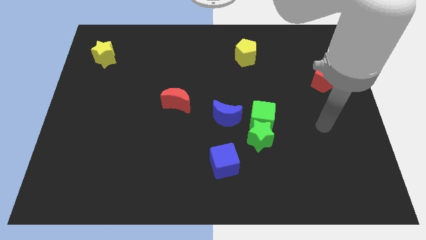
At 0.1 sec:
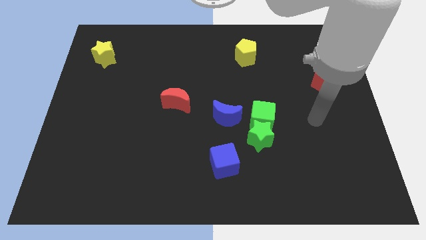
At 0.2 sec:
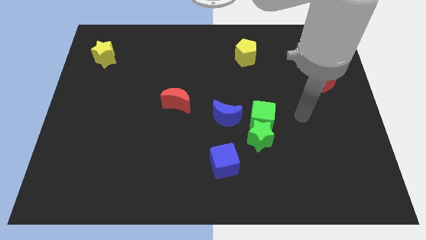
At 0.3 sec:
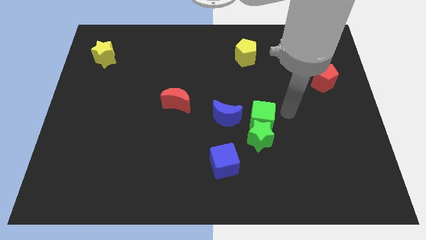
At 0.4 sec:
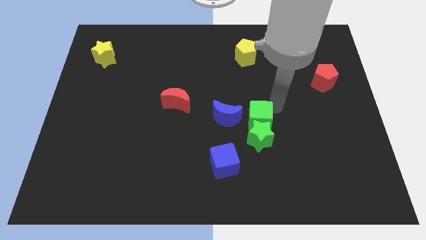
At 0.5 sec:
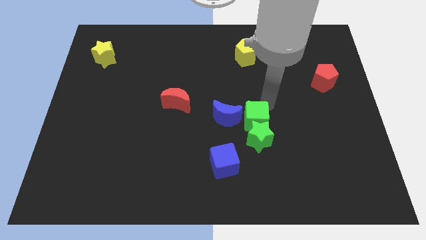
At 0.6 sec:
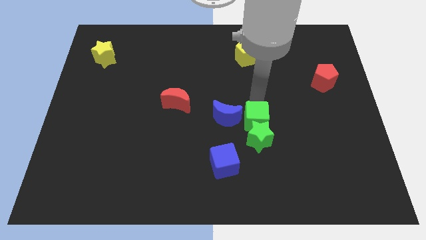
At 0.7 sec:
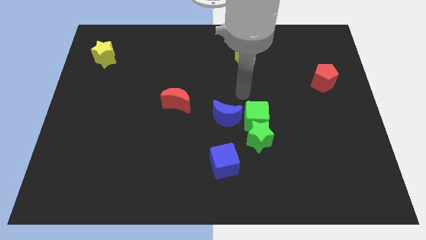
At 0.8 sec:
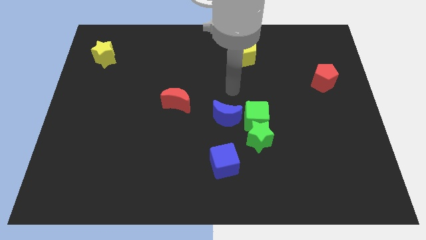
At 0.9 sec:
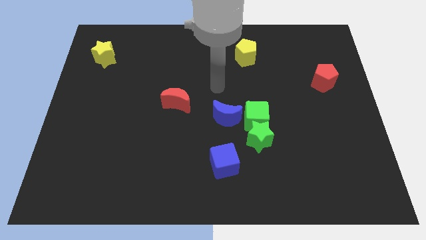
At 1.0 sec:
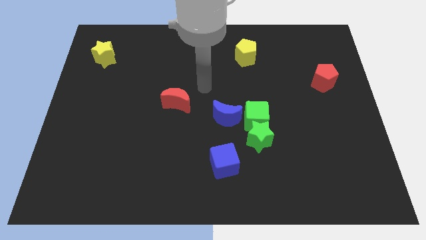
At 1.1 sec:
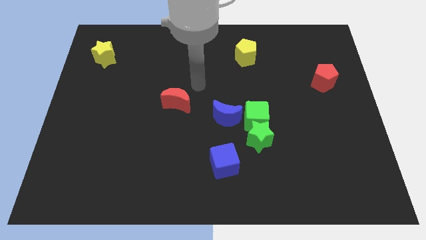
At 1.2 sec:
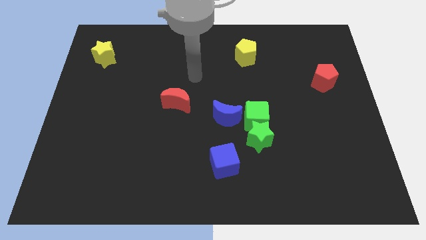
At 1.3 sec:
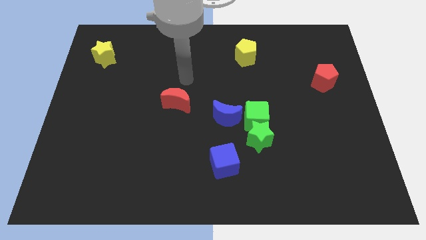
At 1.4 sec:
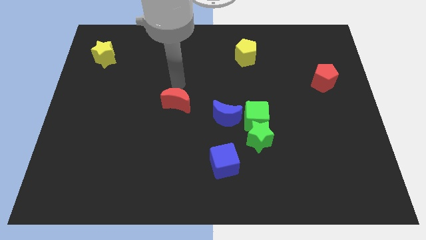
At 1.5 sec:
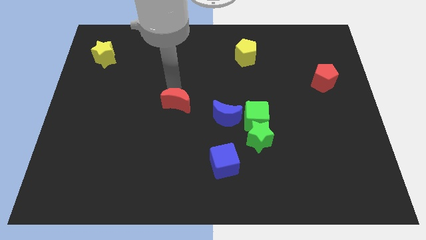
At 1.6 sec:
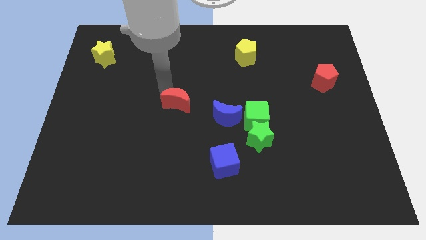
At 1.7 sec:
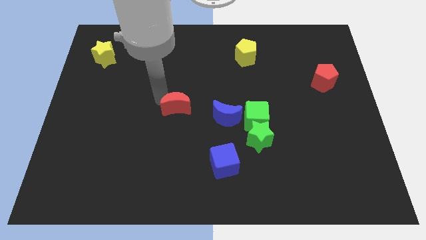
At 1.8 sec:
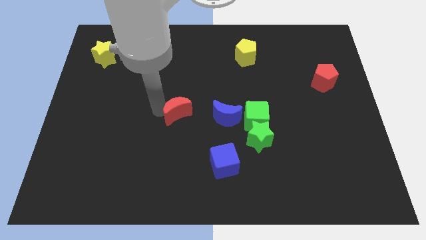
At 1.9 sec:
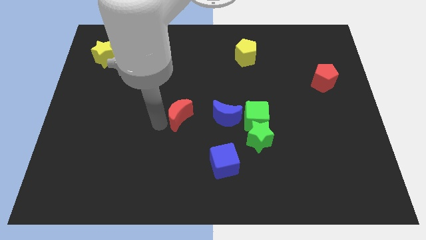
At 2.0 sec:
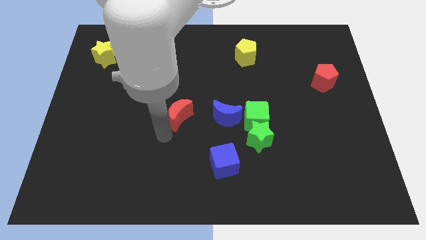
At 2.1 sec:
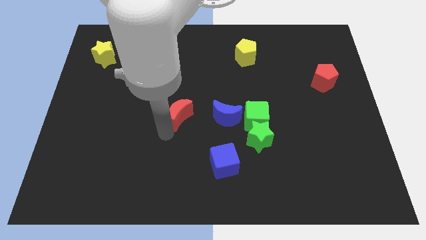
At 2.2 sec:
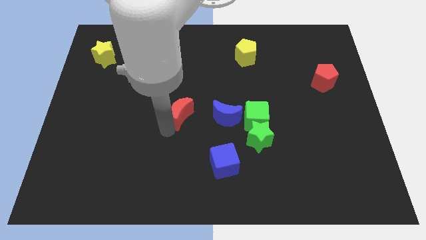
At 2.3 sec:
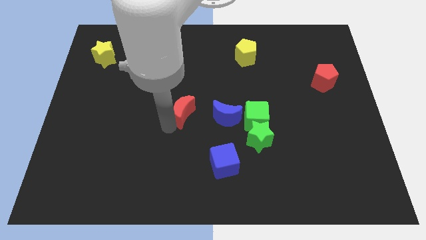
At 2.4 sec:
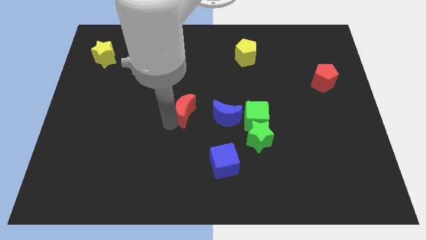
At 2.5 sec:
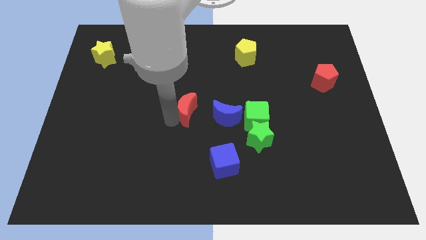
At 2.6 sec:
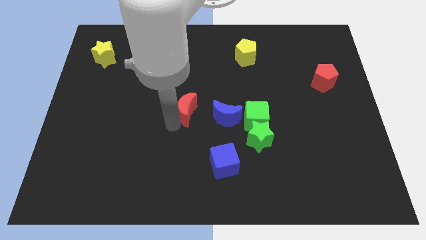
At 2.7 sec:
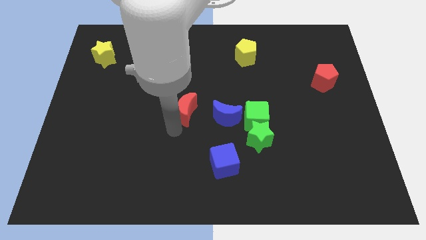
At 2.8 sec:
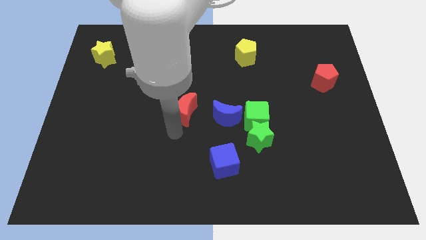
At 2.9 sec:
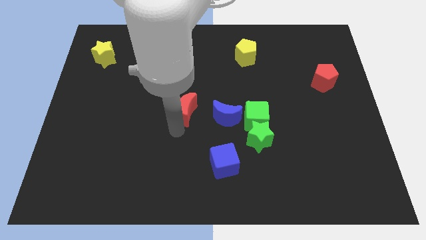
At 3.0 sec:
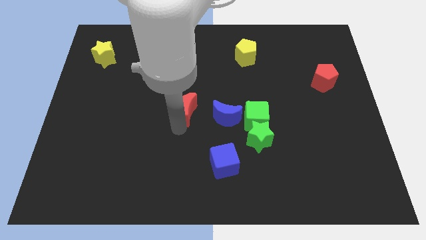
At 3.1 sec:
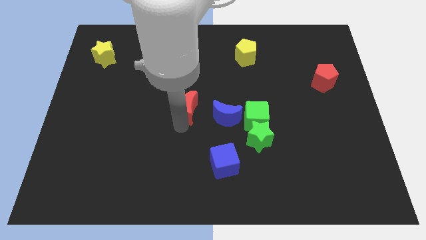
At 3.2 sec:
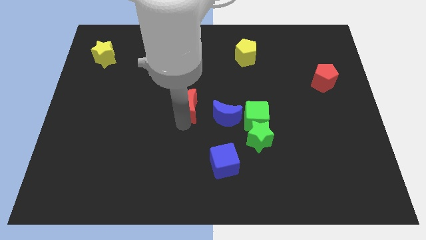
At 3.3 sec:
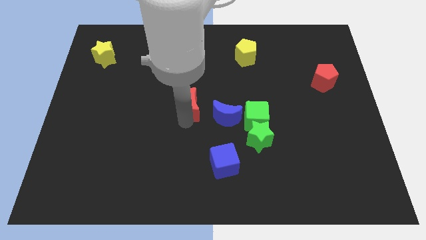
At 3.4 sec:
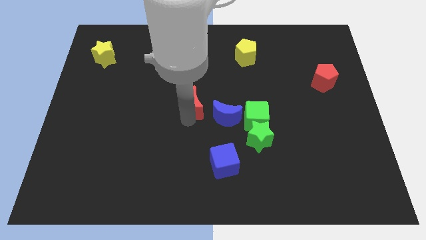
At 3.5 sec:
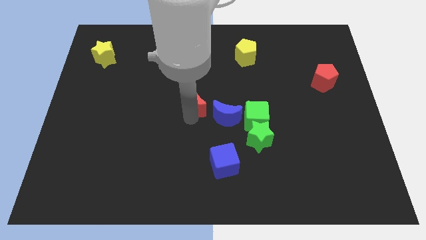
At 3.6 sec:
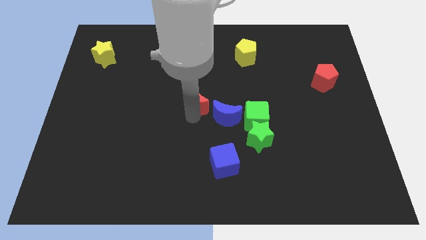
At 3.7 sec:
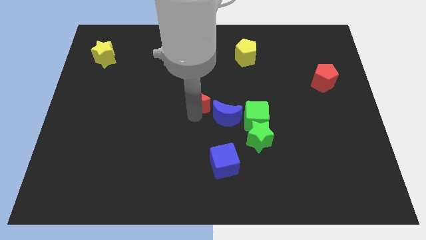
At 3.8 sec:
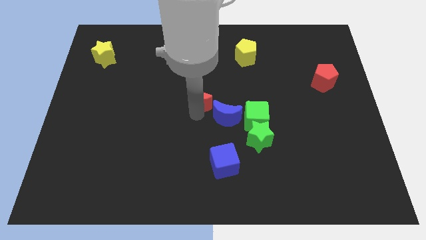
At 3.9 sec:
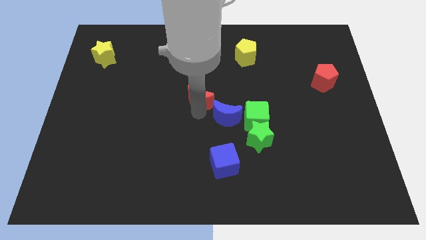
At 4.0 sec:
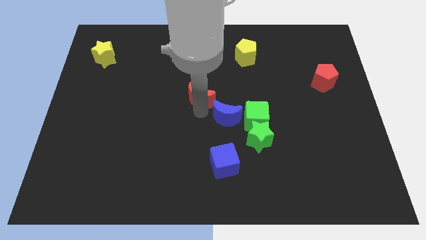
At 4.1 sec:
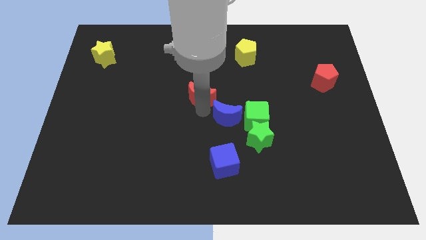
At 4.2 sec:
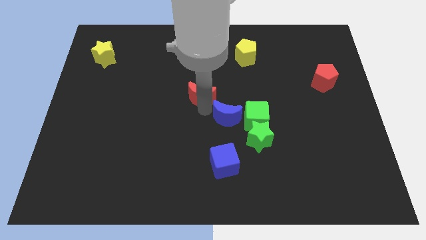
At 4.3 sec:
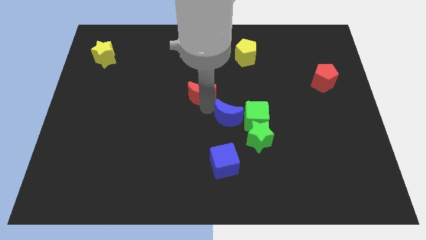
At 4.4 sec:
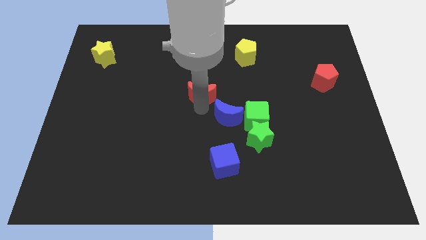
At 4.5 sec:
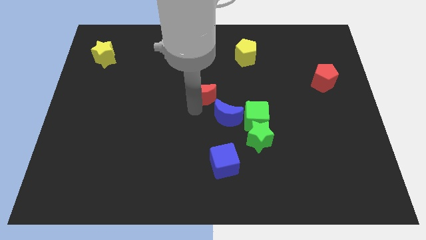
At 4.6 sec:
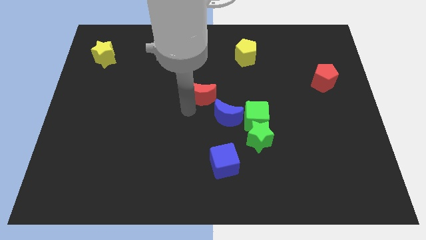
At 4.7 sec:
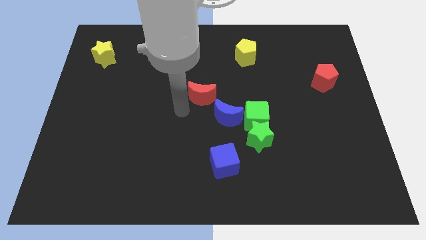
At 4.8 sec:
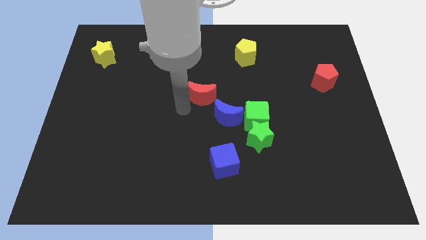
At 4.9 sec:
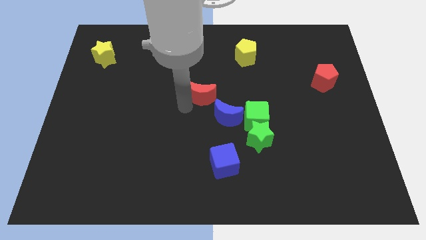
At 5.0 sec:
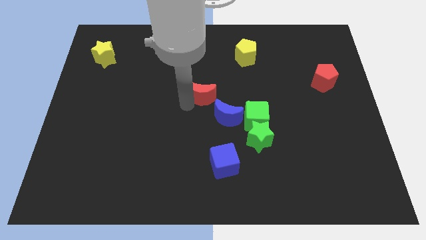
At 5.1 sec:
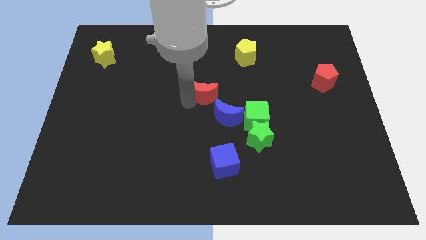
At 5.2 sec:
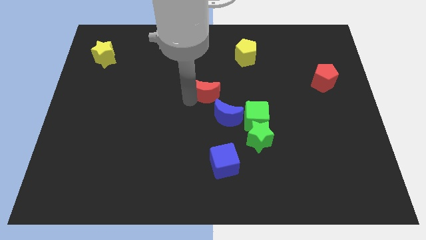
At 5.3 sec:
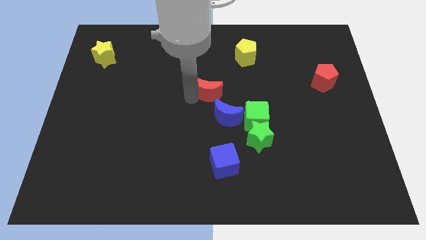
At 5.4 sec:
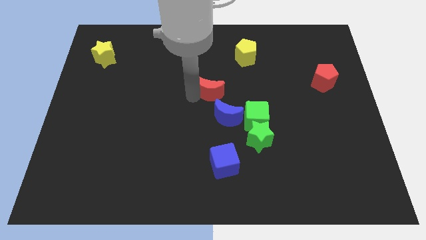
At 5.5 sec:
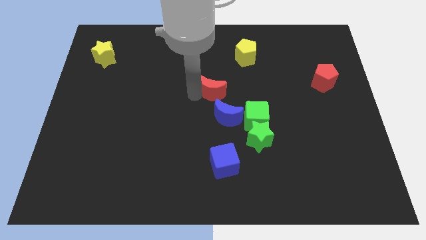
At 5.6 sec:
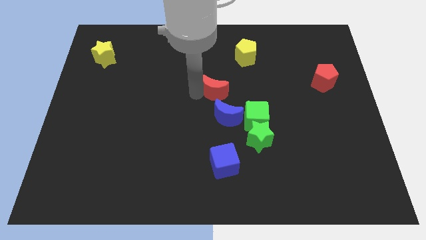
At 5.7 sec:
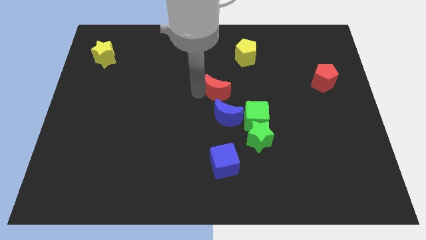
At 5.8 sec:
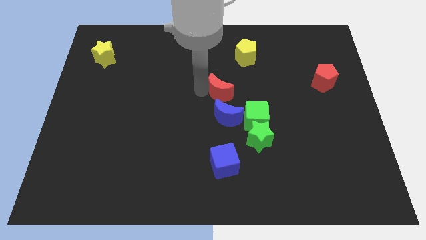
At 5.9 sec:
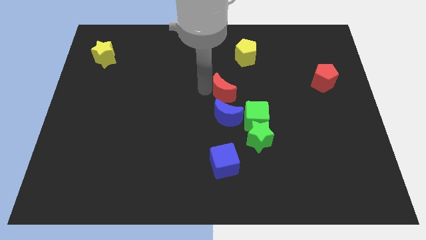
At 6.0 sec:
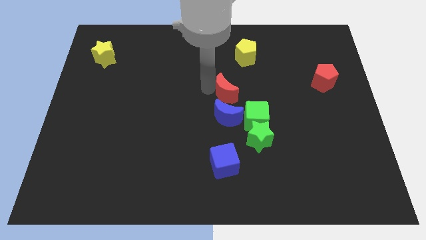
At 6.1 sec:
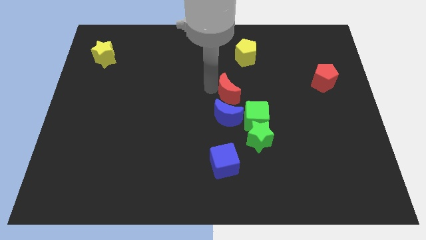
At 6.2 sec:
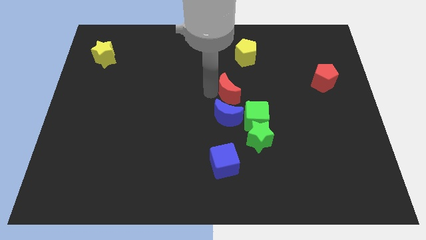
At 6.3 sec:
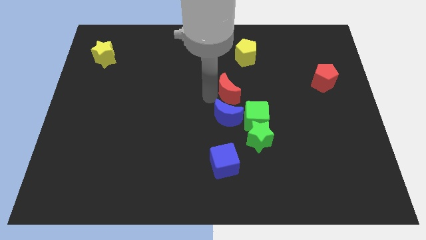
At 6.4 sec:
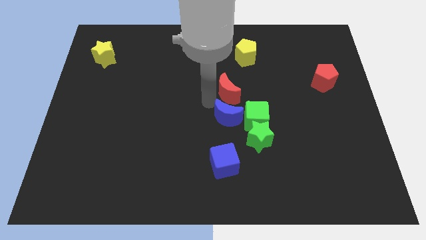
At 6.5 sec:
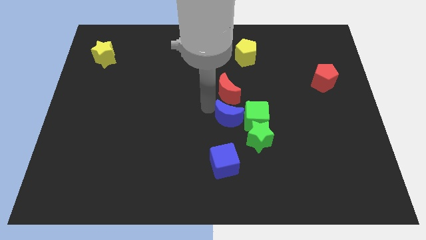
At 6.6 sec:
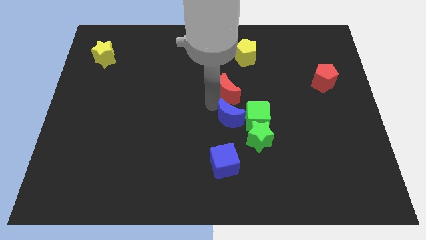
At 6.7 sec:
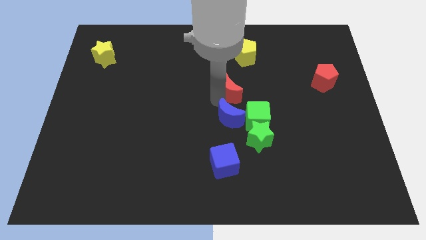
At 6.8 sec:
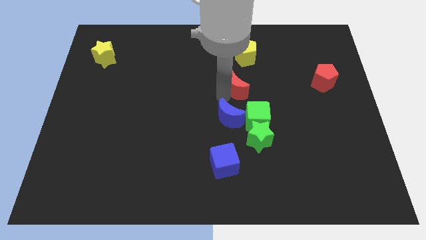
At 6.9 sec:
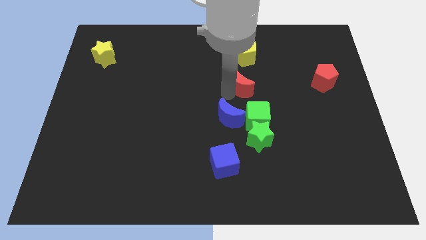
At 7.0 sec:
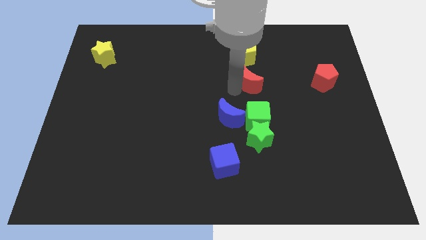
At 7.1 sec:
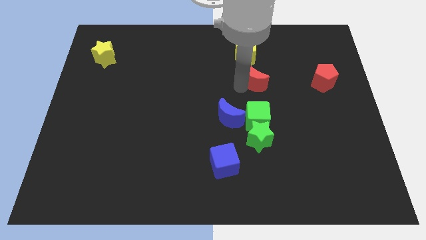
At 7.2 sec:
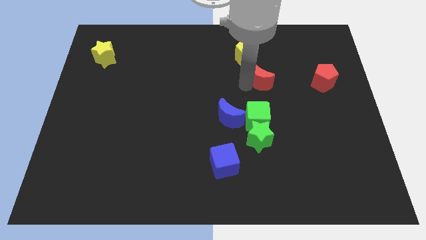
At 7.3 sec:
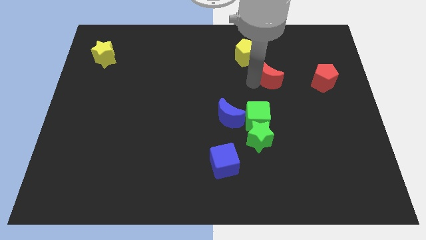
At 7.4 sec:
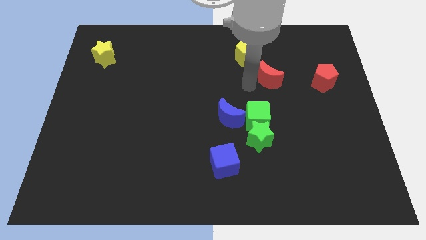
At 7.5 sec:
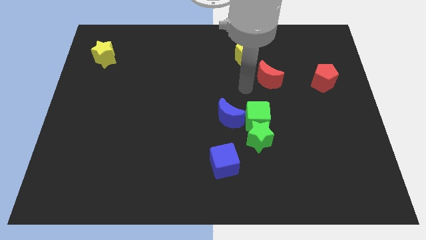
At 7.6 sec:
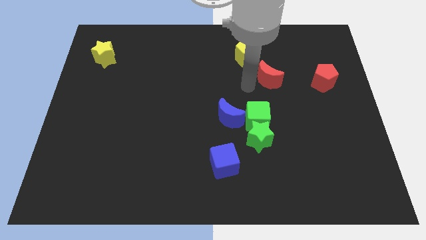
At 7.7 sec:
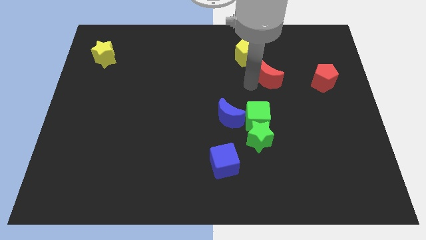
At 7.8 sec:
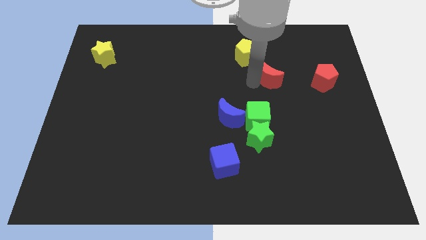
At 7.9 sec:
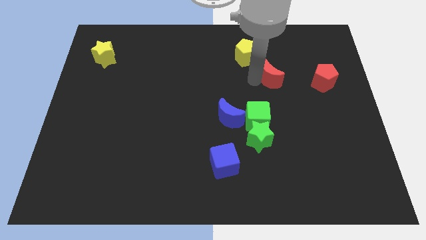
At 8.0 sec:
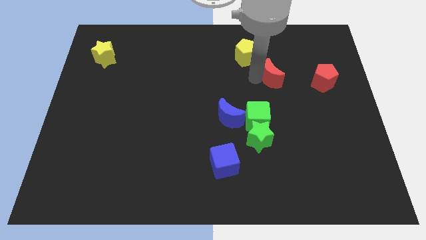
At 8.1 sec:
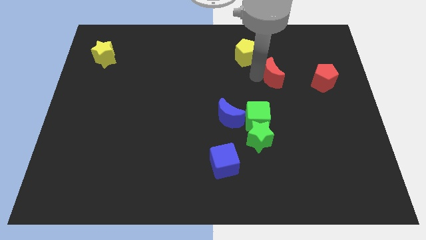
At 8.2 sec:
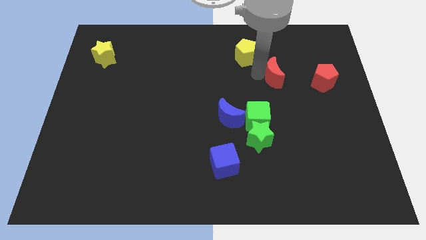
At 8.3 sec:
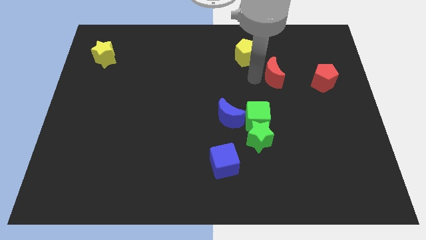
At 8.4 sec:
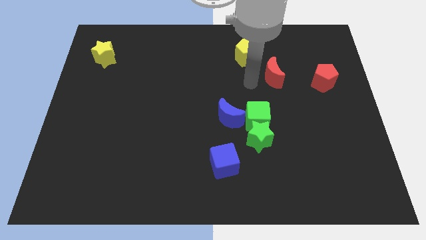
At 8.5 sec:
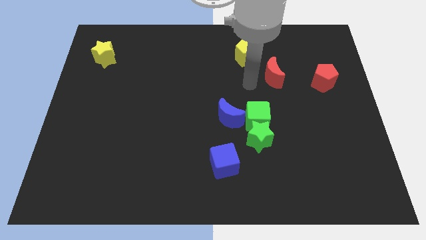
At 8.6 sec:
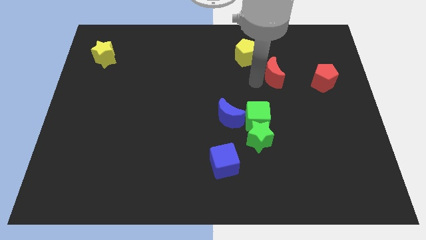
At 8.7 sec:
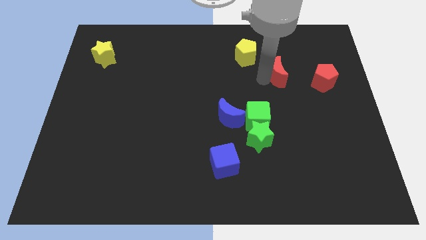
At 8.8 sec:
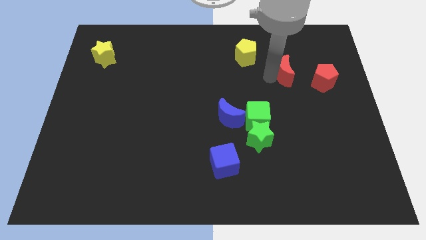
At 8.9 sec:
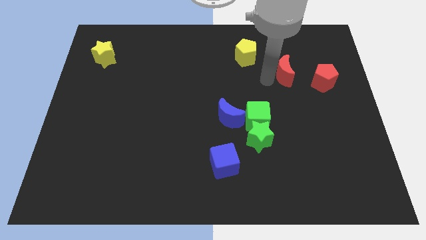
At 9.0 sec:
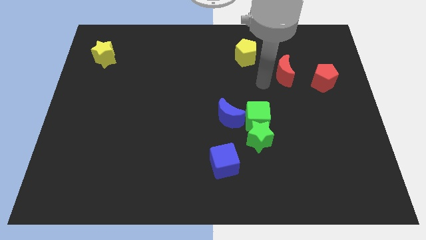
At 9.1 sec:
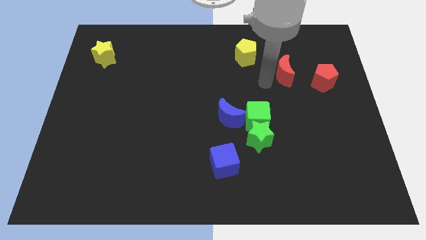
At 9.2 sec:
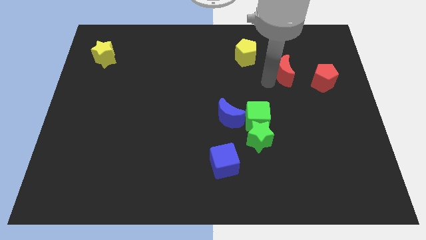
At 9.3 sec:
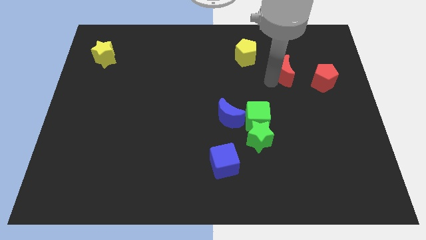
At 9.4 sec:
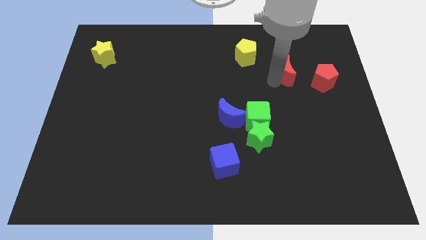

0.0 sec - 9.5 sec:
push the red moon to the top left side of the red pentagon
